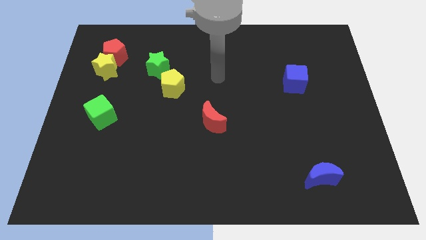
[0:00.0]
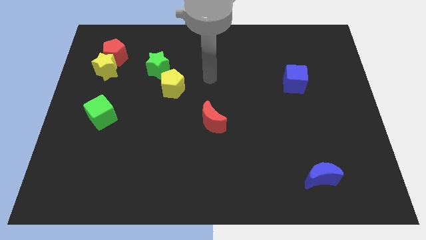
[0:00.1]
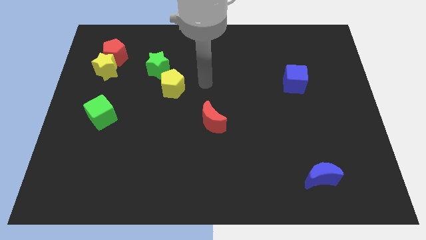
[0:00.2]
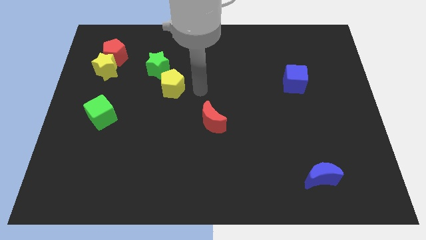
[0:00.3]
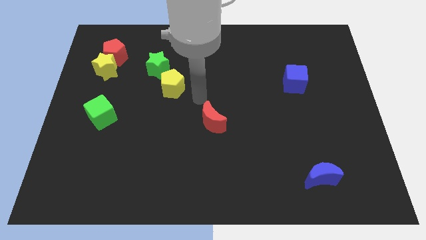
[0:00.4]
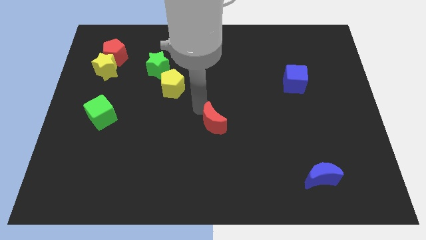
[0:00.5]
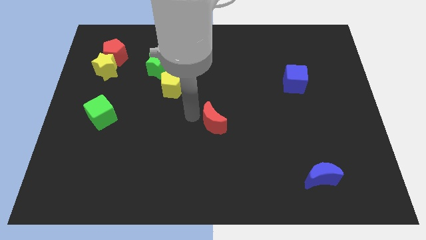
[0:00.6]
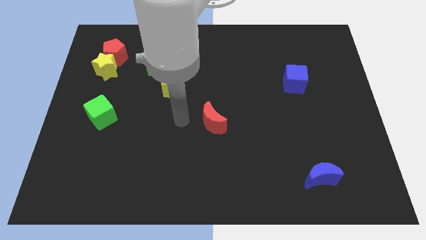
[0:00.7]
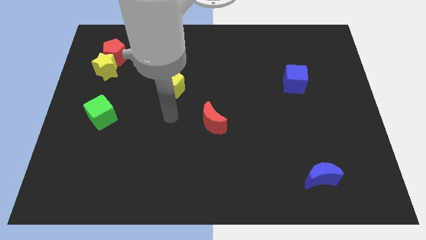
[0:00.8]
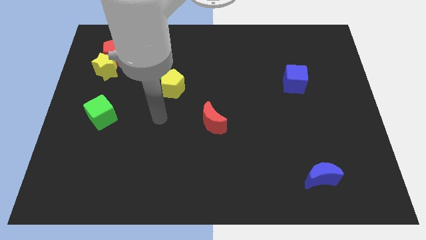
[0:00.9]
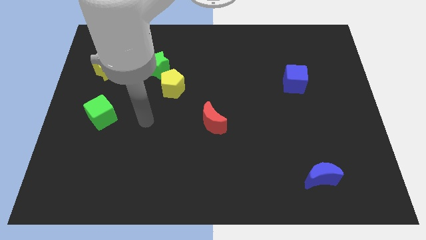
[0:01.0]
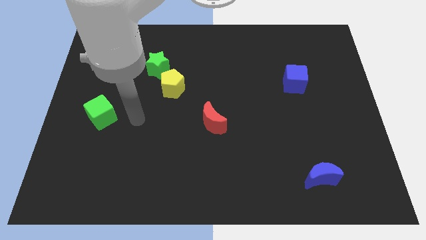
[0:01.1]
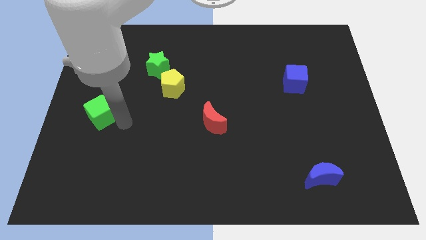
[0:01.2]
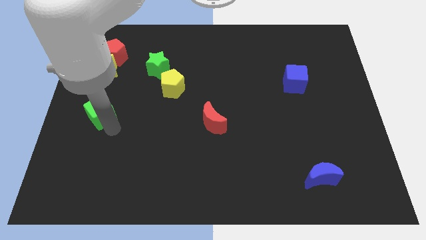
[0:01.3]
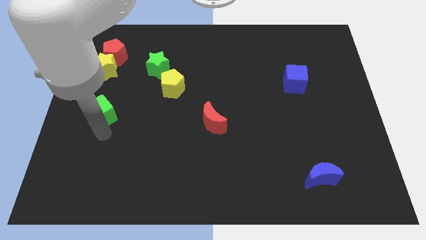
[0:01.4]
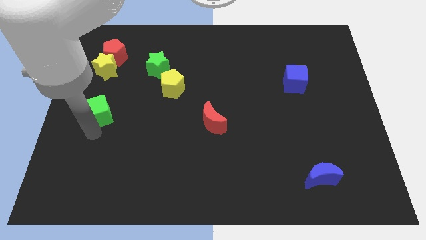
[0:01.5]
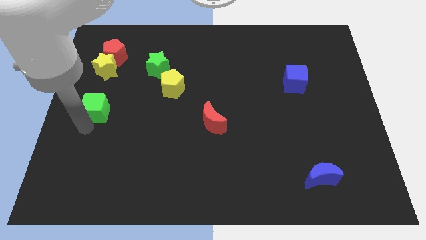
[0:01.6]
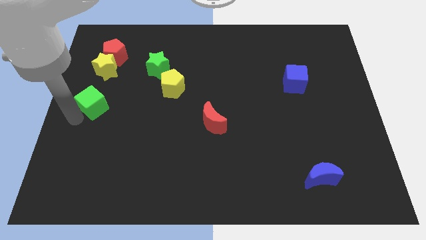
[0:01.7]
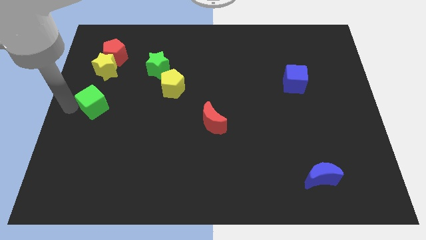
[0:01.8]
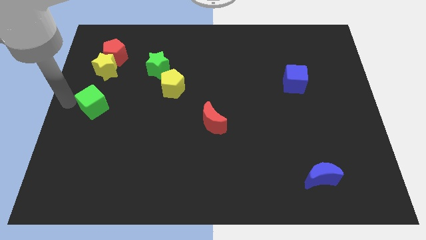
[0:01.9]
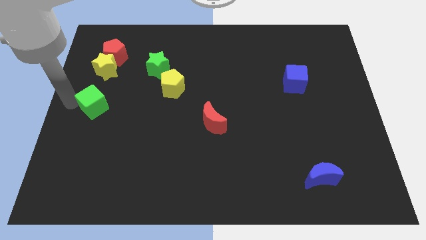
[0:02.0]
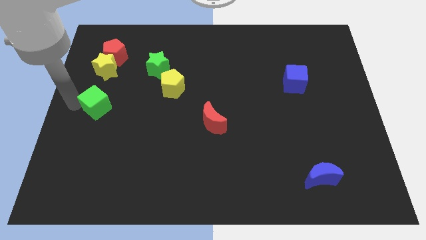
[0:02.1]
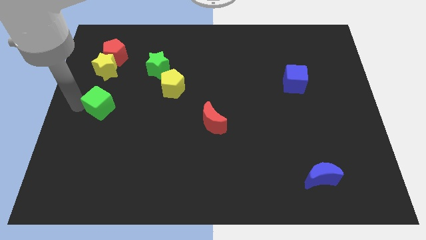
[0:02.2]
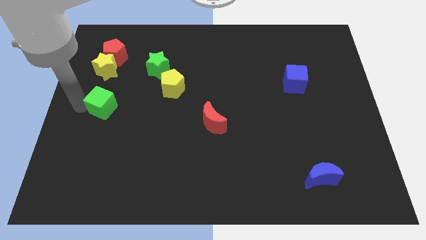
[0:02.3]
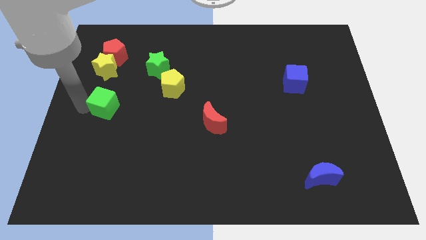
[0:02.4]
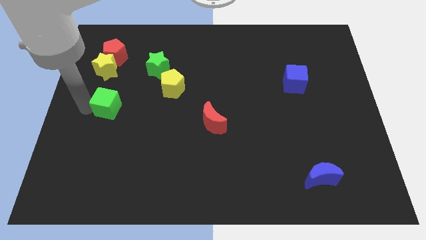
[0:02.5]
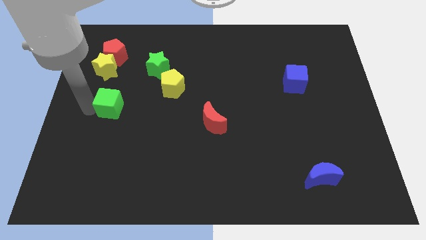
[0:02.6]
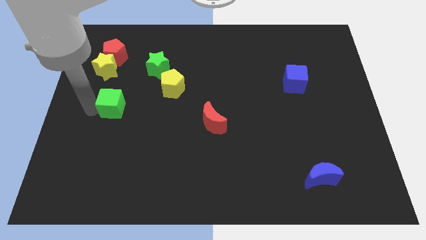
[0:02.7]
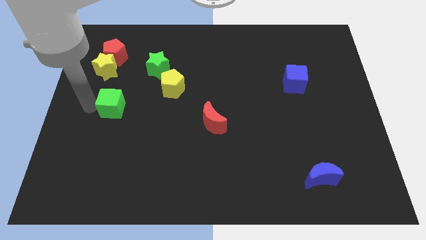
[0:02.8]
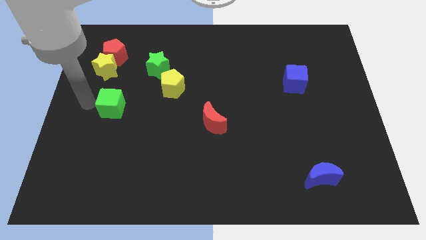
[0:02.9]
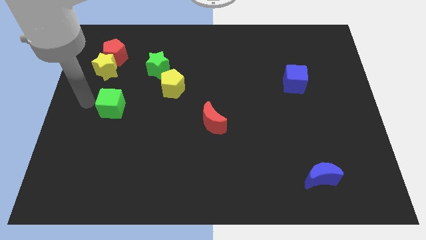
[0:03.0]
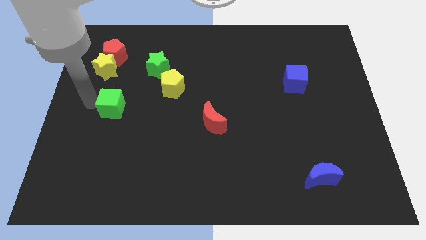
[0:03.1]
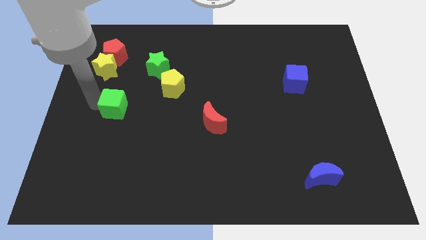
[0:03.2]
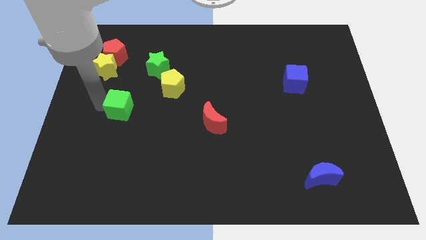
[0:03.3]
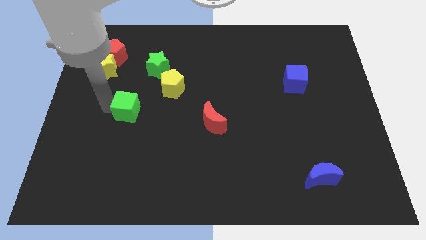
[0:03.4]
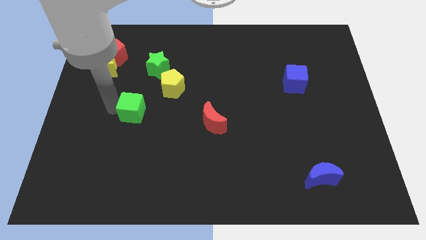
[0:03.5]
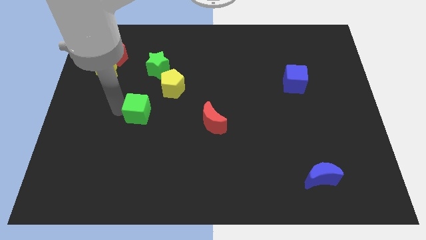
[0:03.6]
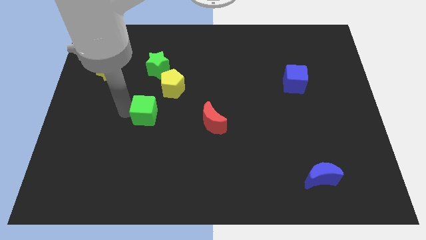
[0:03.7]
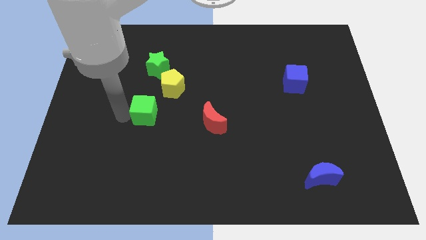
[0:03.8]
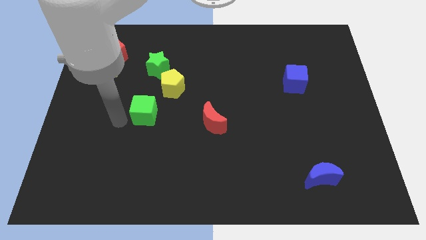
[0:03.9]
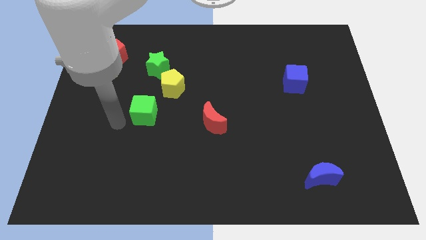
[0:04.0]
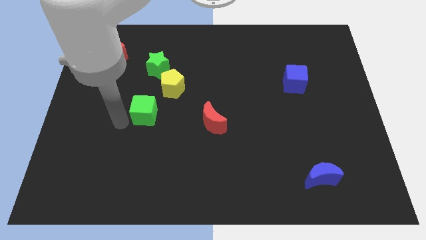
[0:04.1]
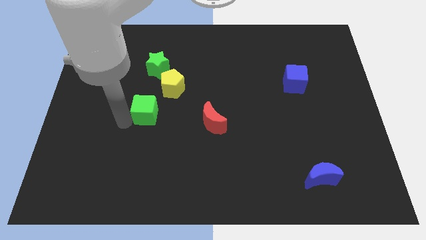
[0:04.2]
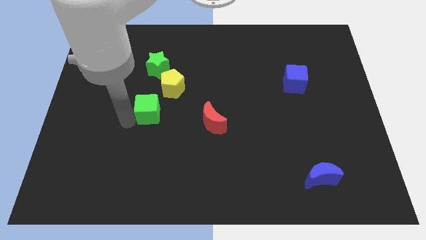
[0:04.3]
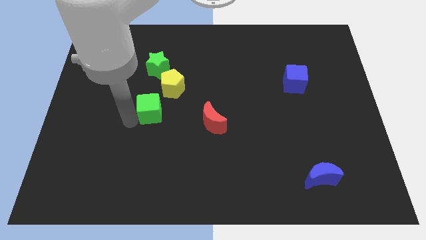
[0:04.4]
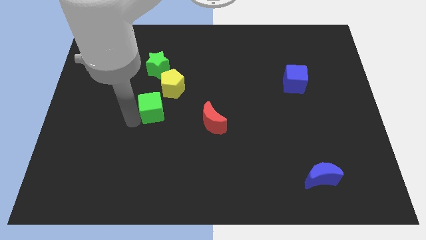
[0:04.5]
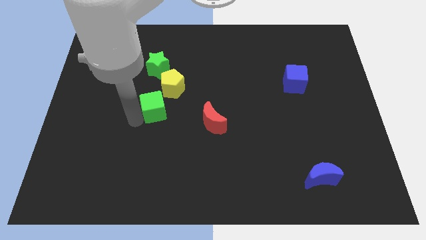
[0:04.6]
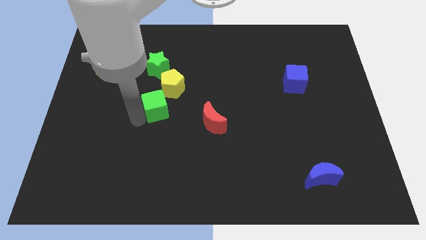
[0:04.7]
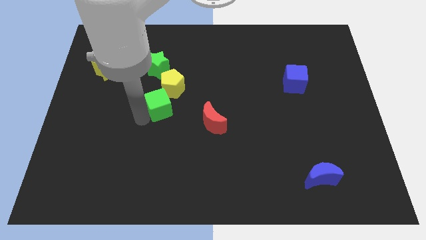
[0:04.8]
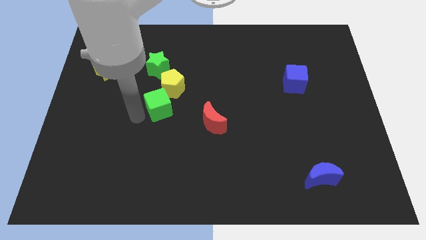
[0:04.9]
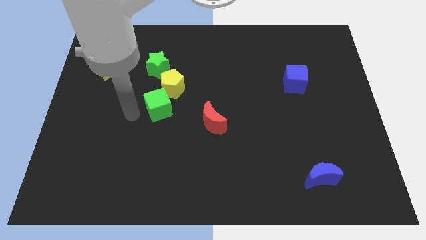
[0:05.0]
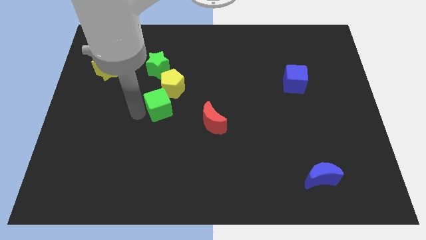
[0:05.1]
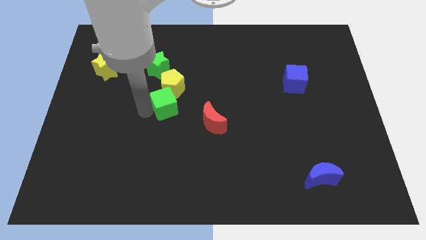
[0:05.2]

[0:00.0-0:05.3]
push the green cube to the middle of the board

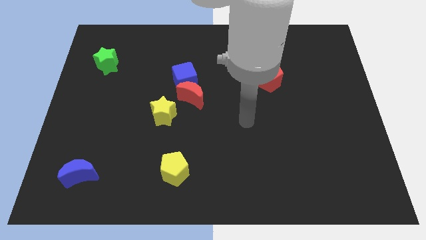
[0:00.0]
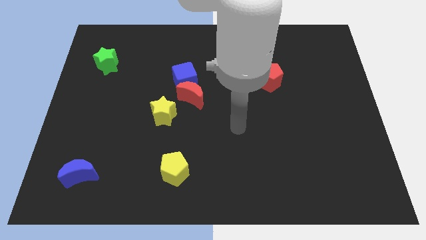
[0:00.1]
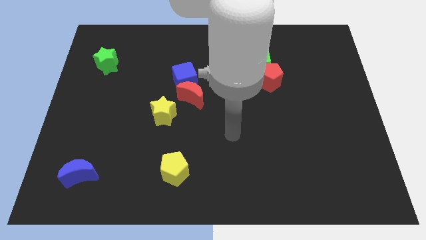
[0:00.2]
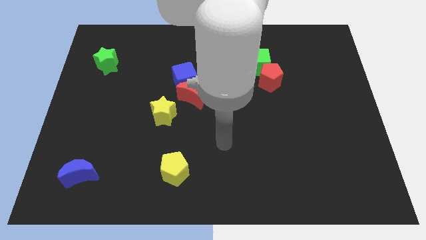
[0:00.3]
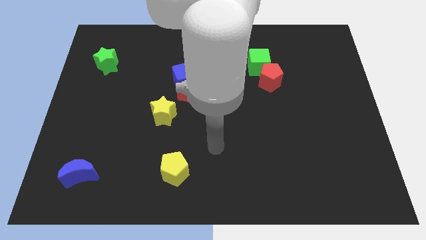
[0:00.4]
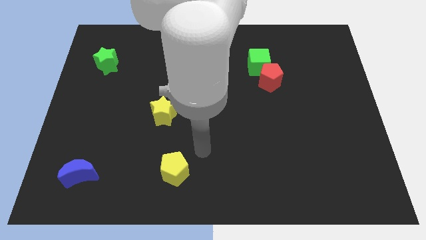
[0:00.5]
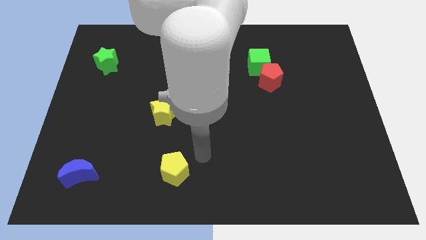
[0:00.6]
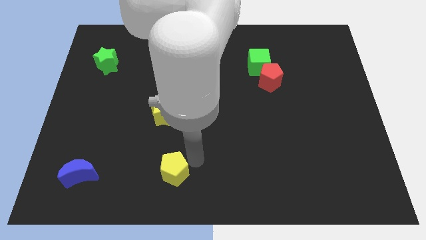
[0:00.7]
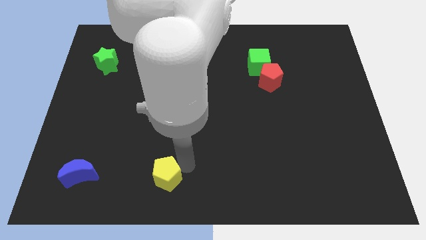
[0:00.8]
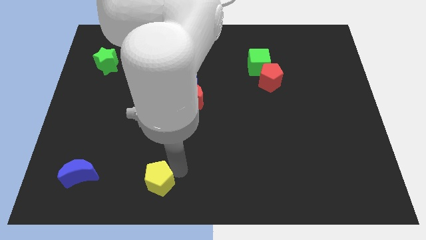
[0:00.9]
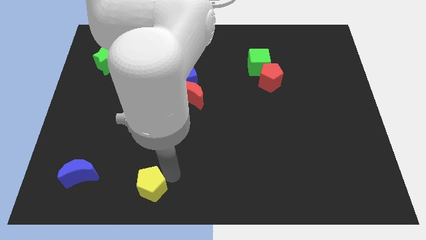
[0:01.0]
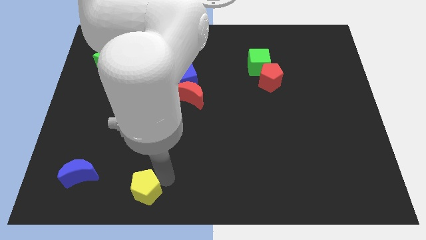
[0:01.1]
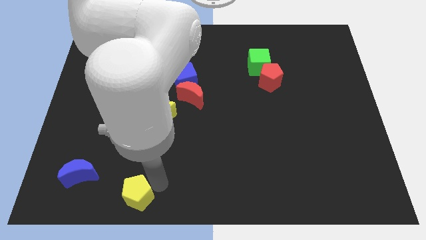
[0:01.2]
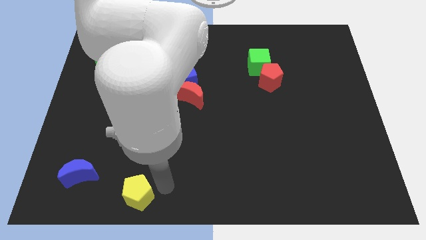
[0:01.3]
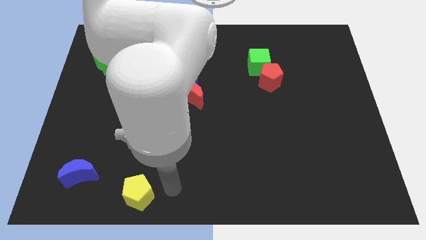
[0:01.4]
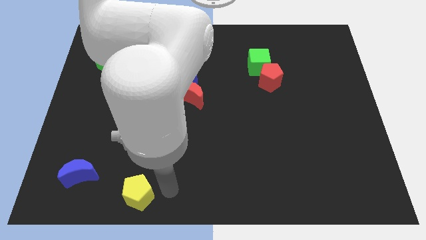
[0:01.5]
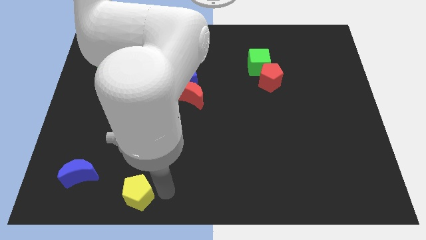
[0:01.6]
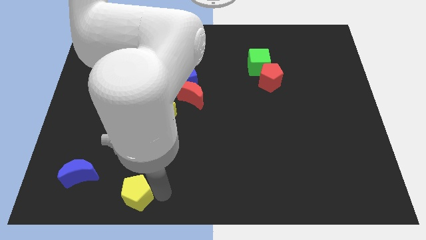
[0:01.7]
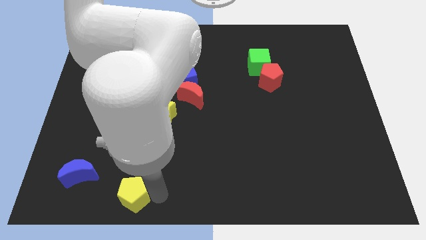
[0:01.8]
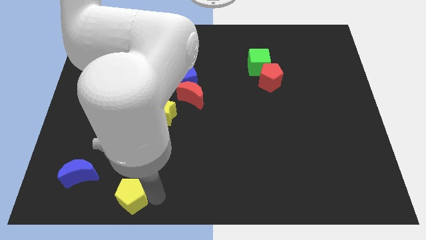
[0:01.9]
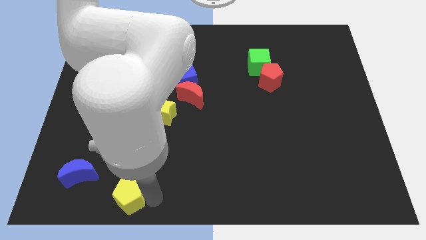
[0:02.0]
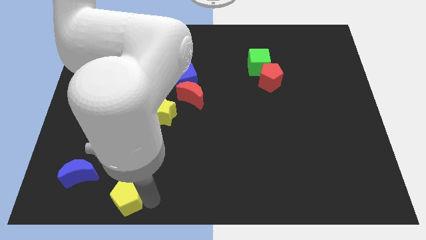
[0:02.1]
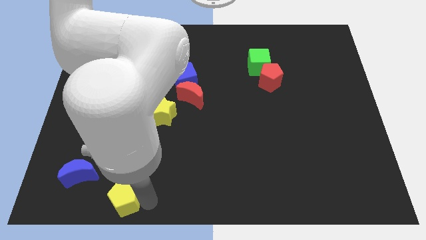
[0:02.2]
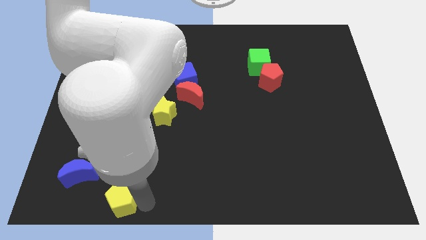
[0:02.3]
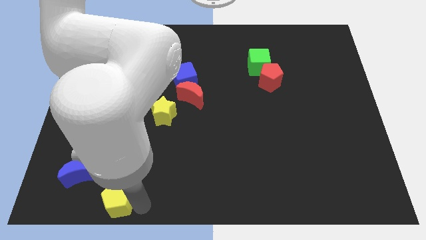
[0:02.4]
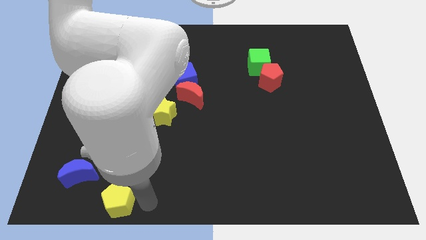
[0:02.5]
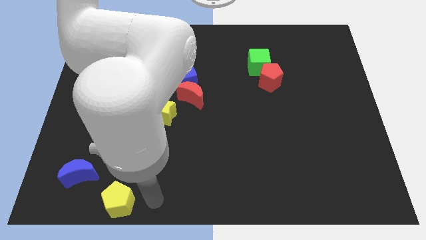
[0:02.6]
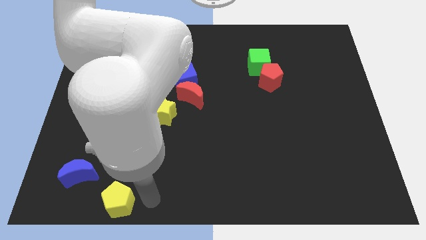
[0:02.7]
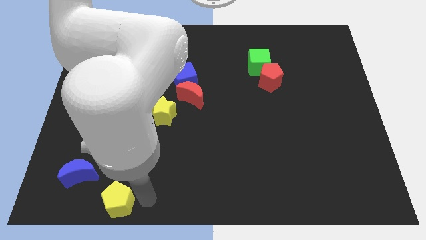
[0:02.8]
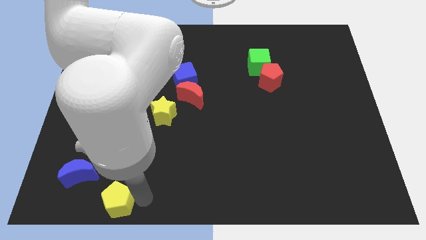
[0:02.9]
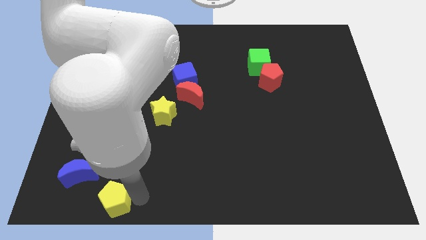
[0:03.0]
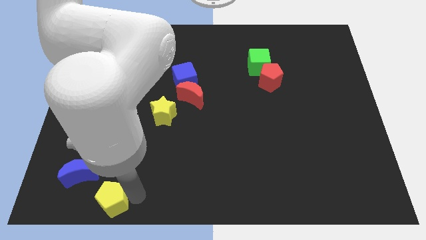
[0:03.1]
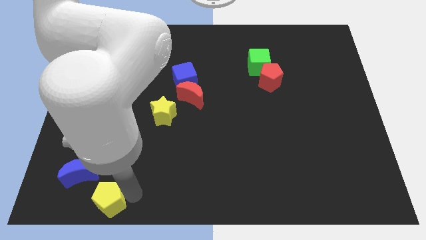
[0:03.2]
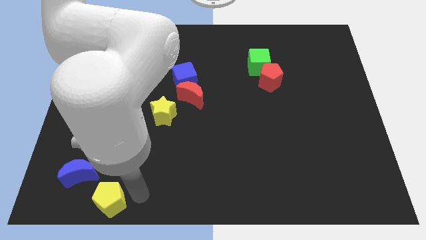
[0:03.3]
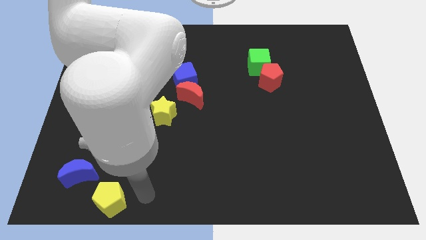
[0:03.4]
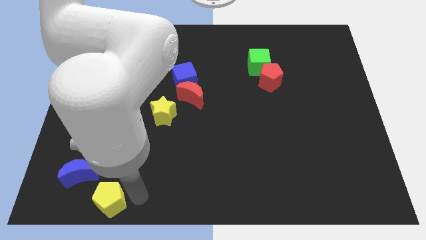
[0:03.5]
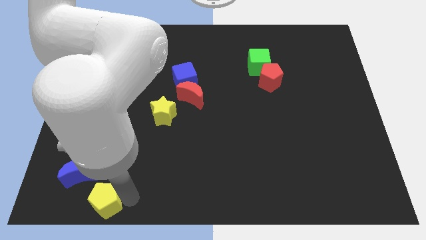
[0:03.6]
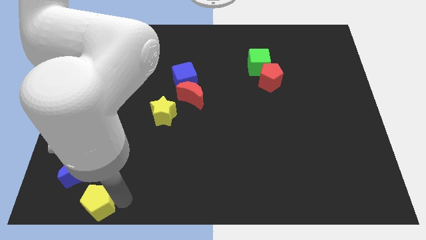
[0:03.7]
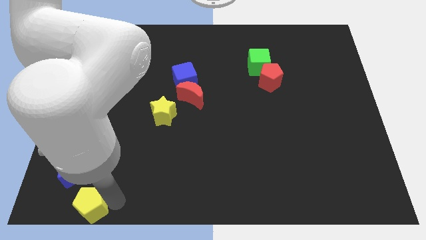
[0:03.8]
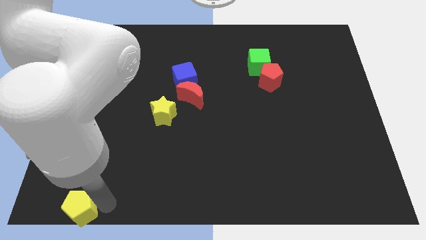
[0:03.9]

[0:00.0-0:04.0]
put the yellow pentagon to the bottom left of the board
